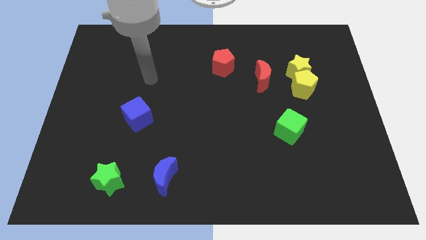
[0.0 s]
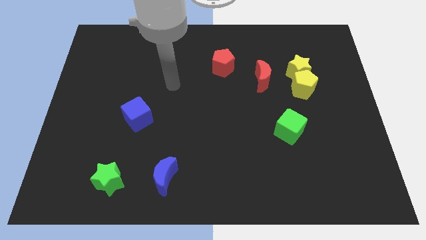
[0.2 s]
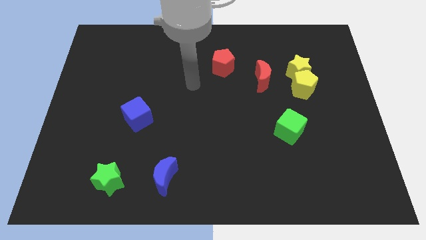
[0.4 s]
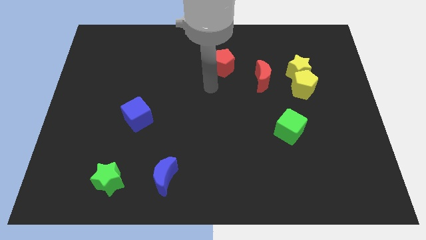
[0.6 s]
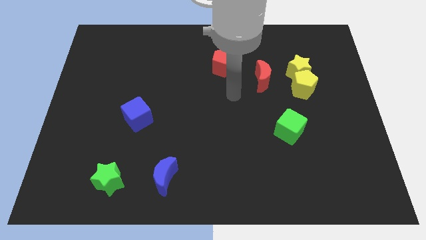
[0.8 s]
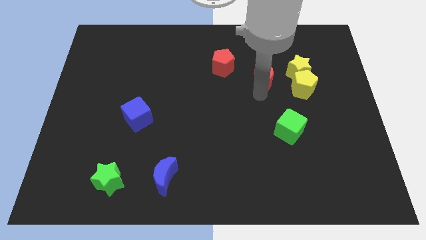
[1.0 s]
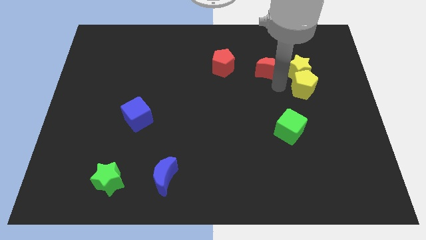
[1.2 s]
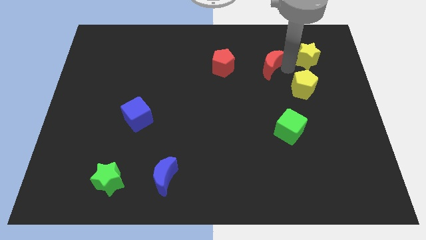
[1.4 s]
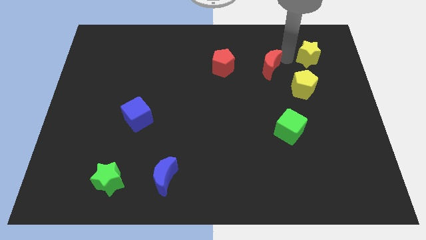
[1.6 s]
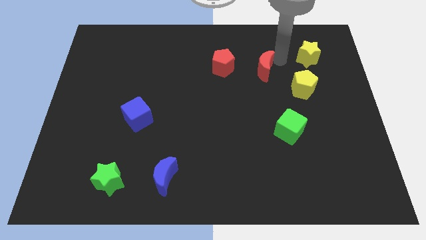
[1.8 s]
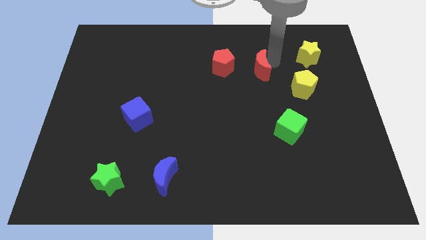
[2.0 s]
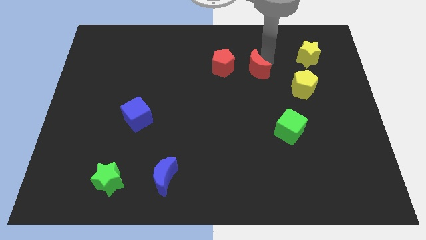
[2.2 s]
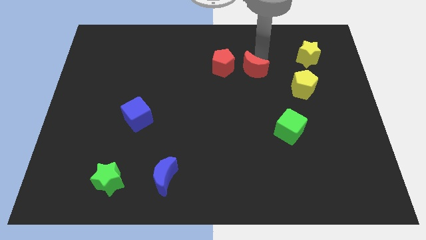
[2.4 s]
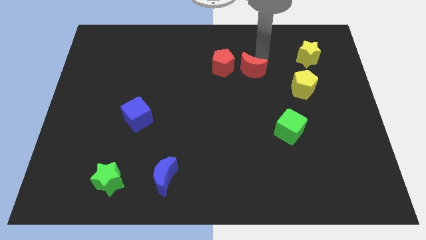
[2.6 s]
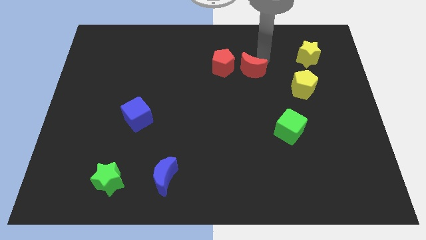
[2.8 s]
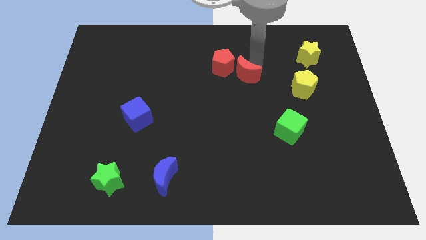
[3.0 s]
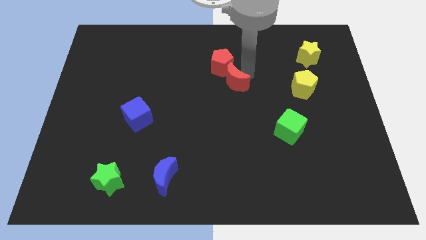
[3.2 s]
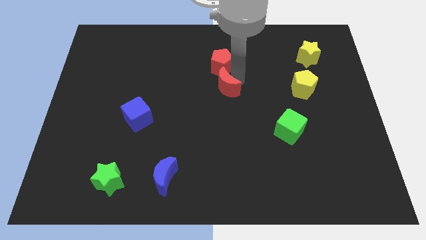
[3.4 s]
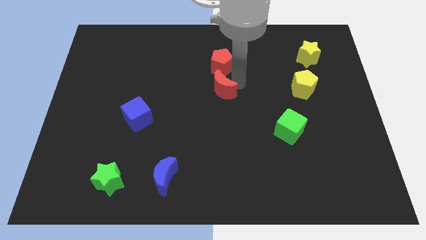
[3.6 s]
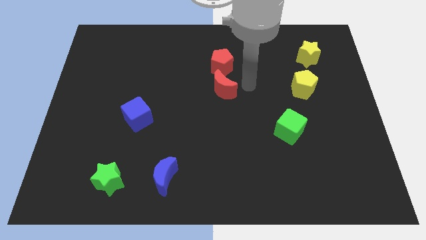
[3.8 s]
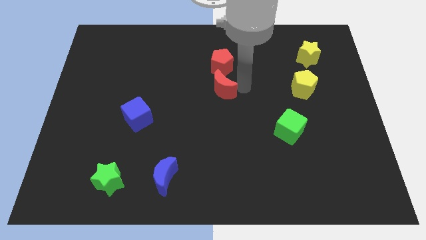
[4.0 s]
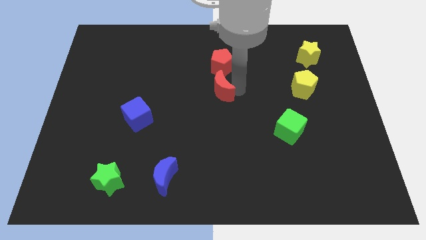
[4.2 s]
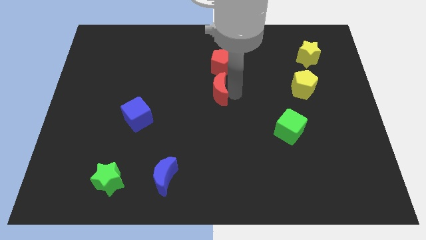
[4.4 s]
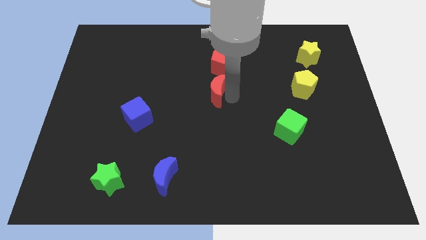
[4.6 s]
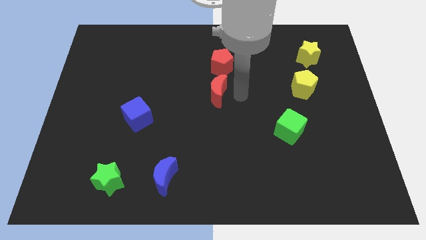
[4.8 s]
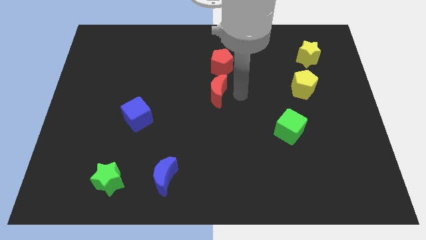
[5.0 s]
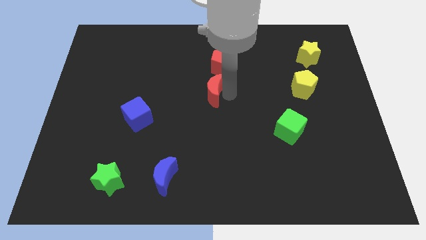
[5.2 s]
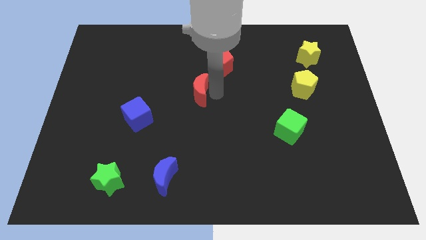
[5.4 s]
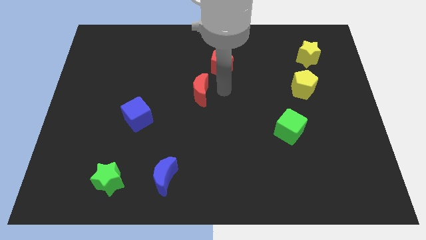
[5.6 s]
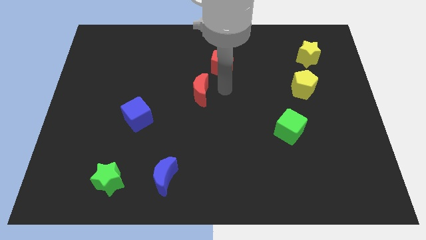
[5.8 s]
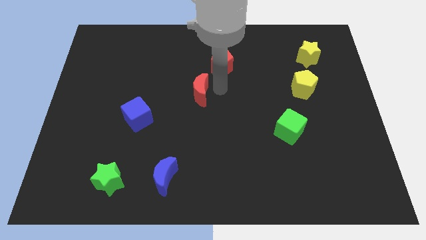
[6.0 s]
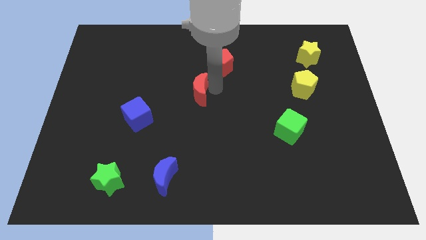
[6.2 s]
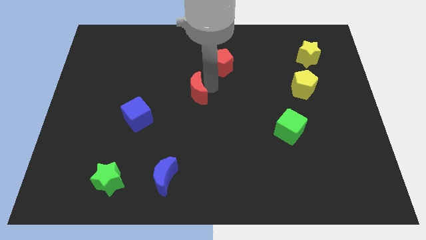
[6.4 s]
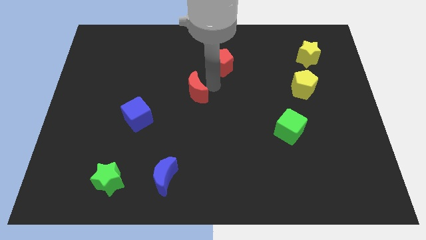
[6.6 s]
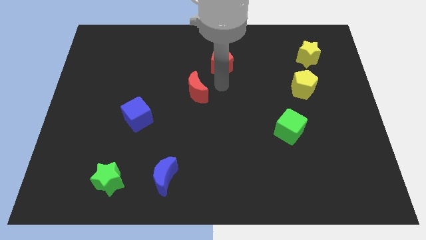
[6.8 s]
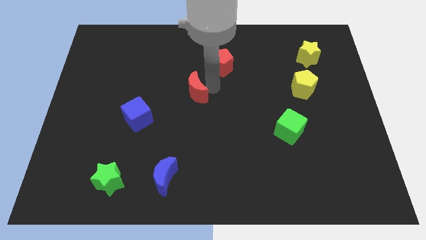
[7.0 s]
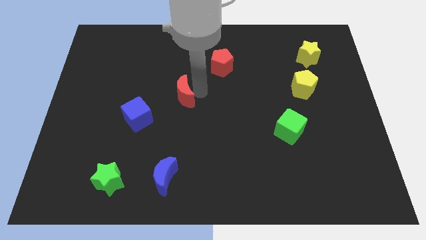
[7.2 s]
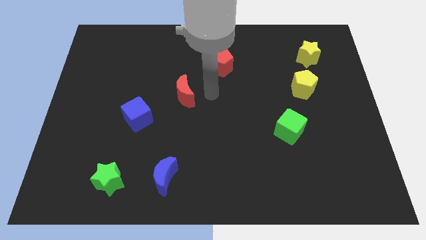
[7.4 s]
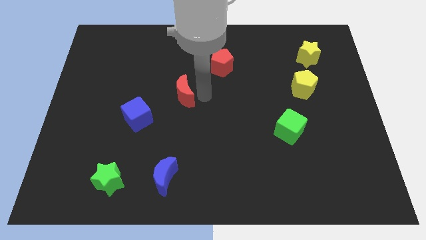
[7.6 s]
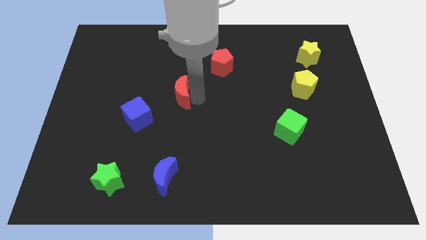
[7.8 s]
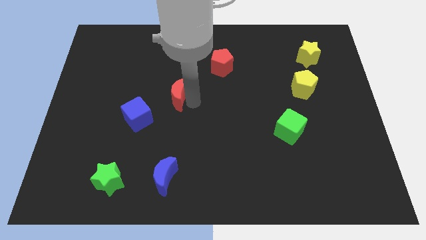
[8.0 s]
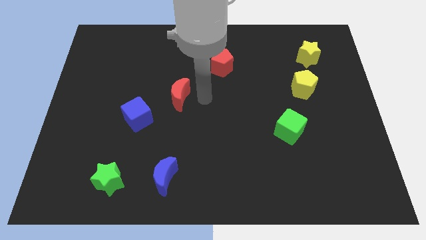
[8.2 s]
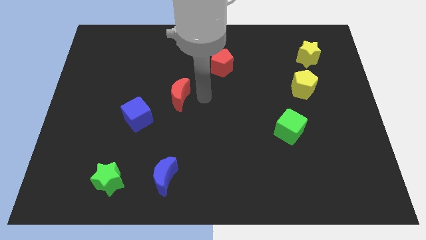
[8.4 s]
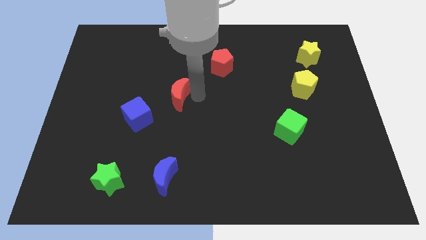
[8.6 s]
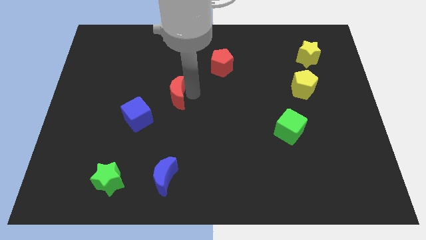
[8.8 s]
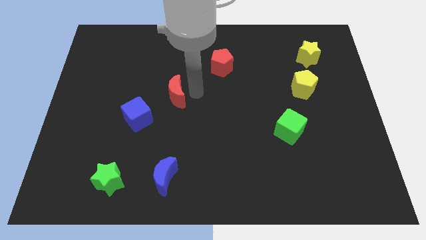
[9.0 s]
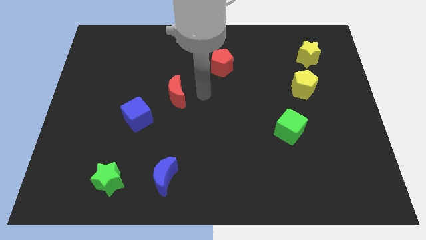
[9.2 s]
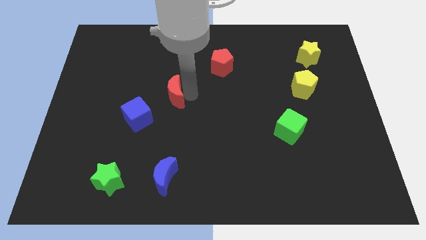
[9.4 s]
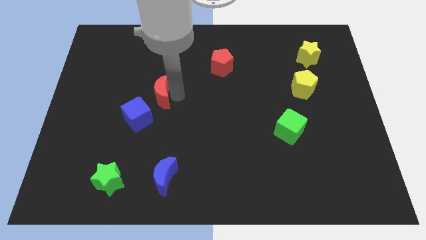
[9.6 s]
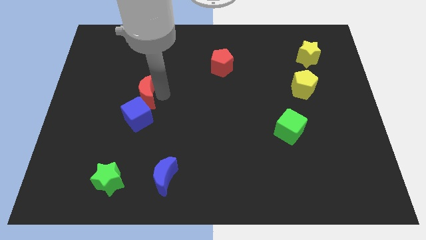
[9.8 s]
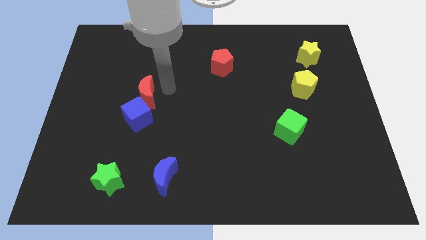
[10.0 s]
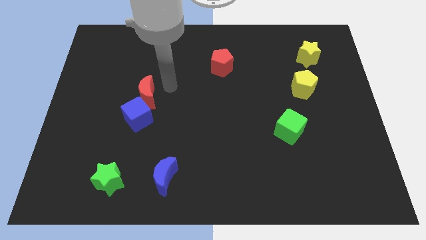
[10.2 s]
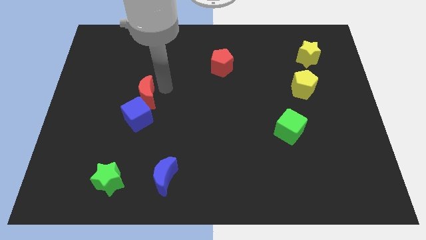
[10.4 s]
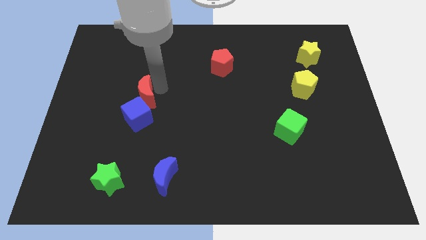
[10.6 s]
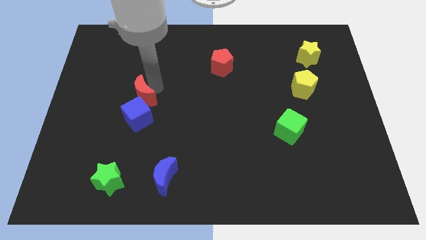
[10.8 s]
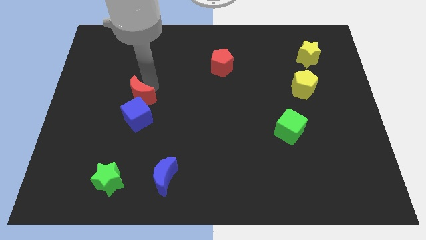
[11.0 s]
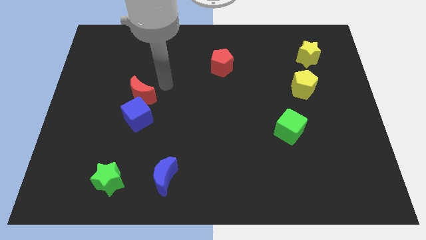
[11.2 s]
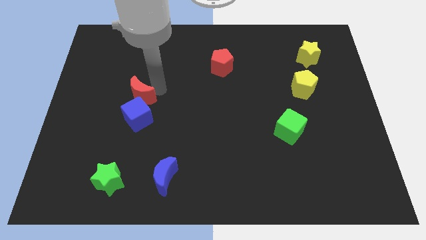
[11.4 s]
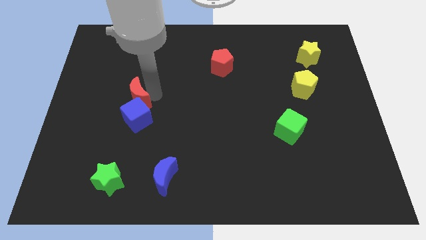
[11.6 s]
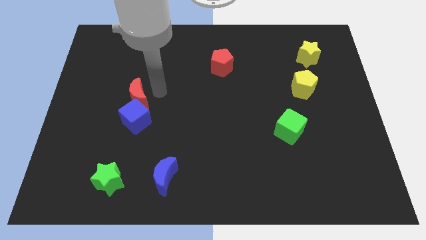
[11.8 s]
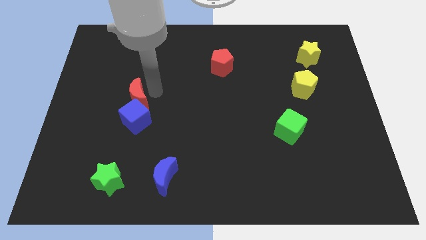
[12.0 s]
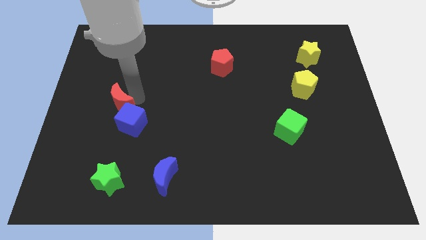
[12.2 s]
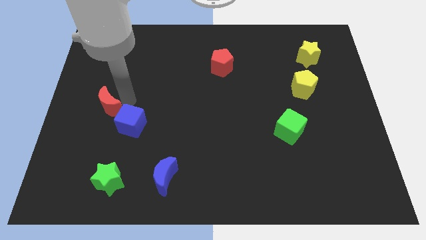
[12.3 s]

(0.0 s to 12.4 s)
slide the red moon to the left side of the blue cube

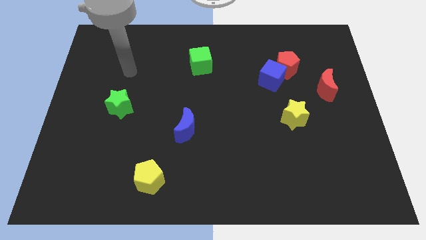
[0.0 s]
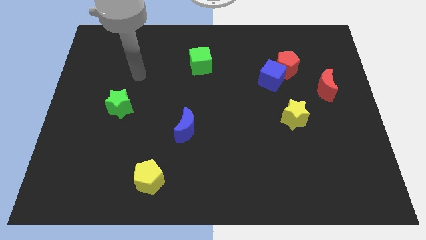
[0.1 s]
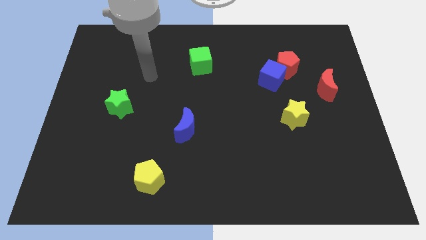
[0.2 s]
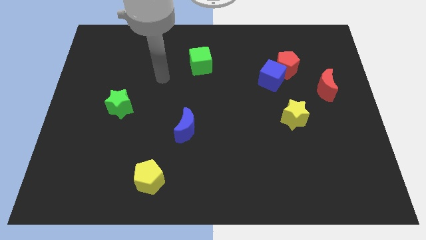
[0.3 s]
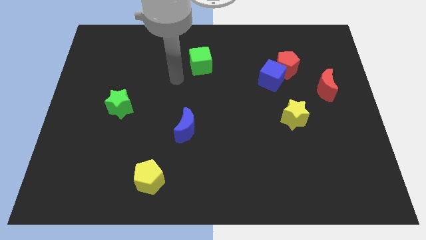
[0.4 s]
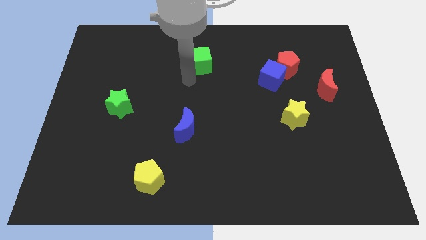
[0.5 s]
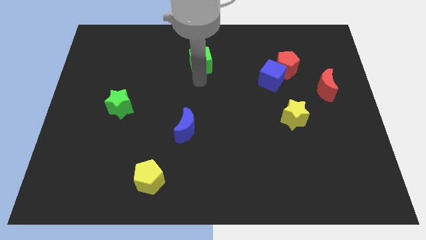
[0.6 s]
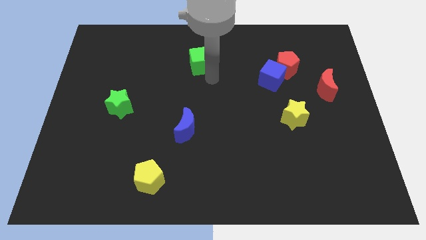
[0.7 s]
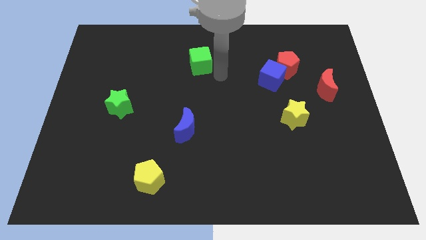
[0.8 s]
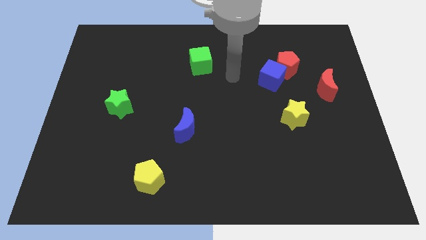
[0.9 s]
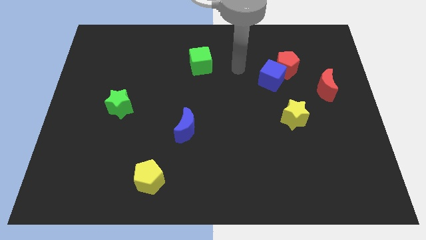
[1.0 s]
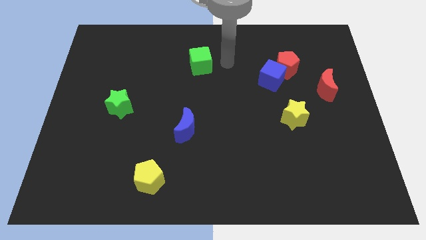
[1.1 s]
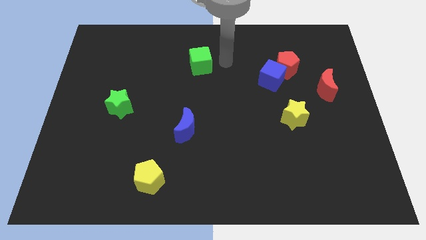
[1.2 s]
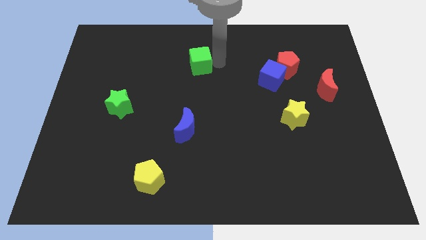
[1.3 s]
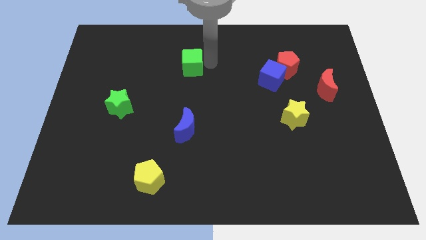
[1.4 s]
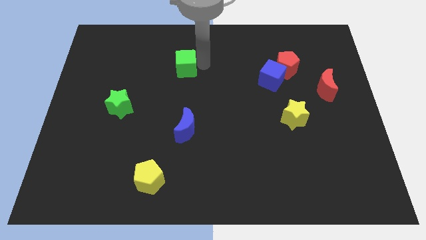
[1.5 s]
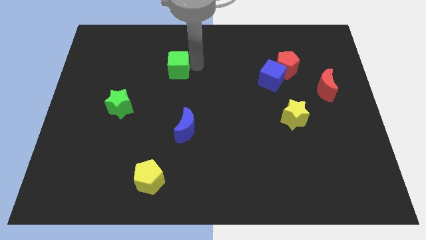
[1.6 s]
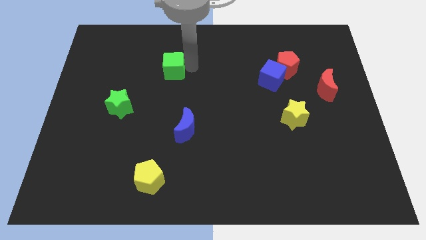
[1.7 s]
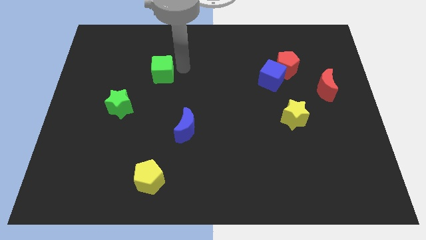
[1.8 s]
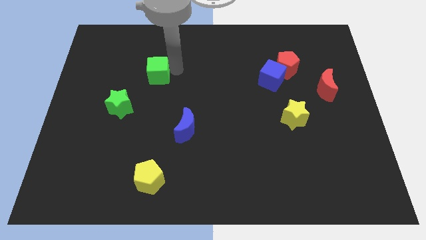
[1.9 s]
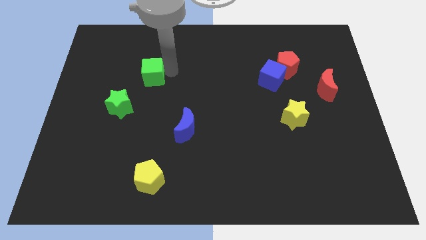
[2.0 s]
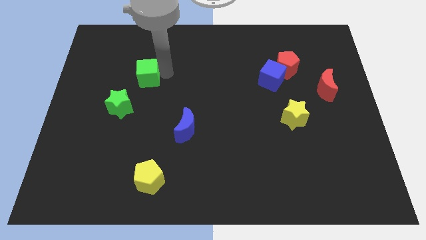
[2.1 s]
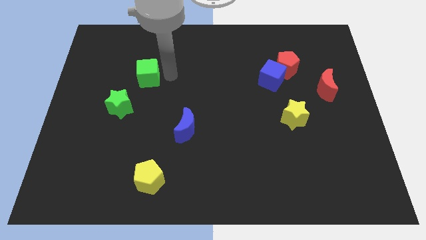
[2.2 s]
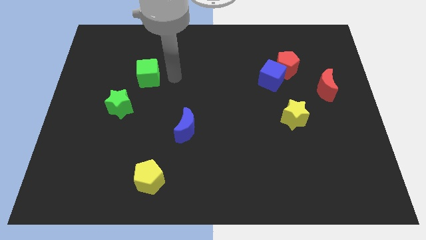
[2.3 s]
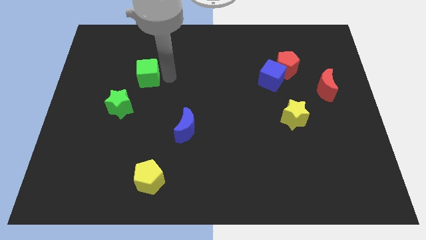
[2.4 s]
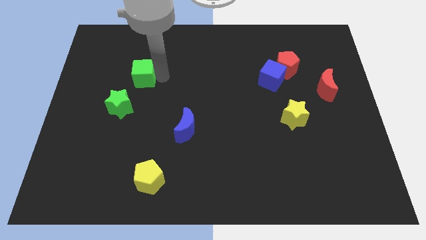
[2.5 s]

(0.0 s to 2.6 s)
push the green cube to the top side of the green star
